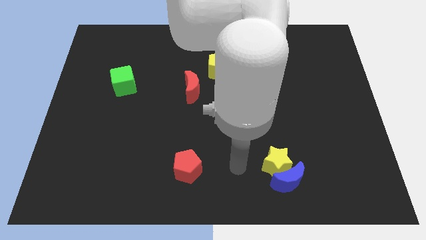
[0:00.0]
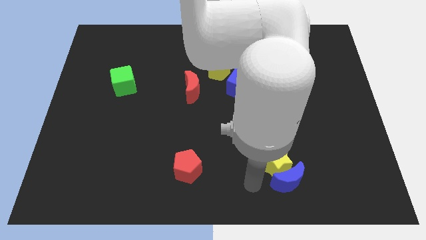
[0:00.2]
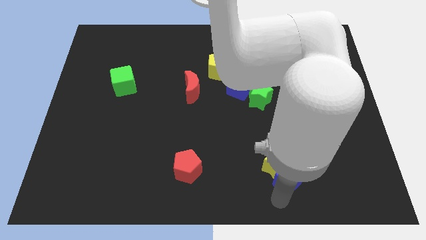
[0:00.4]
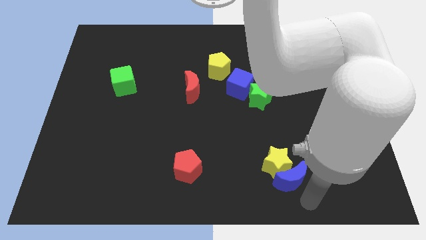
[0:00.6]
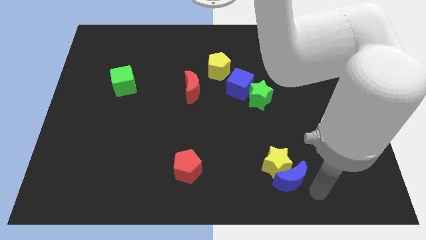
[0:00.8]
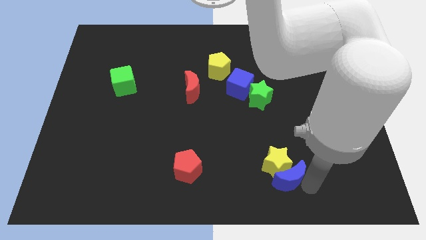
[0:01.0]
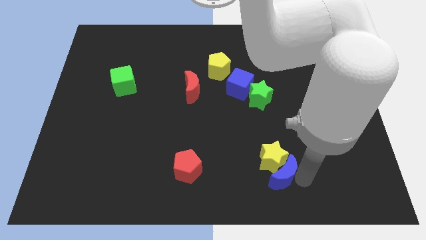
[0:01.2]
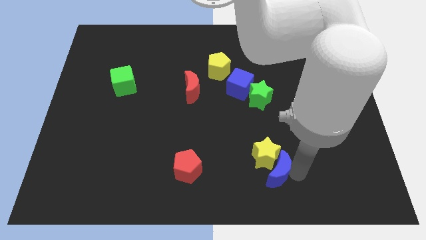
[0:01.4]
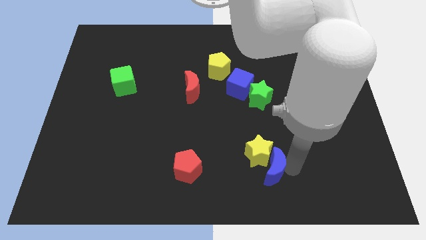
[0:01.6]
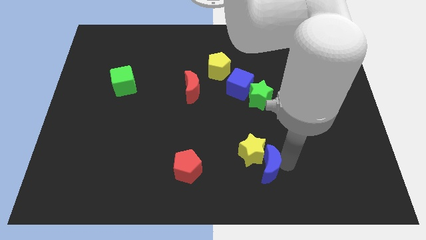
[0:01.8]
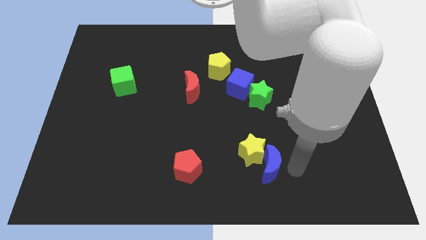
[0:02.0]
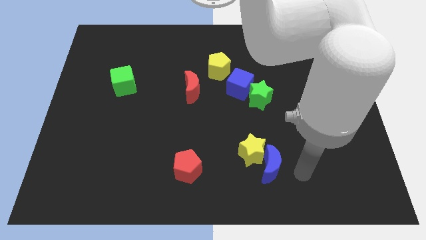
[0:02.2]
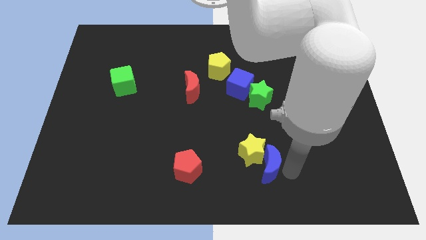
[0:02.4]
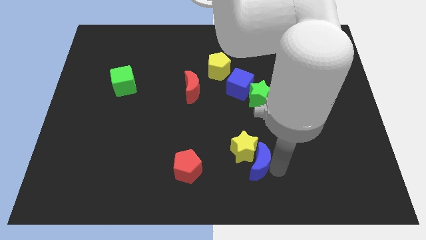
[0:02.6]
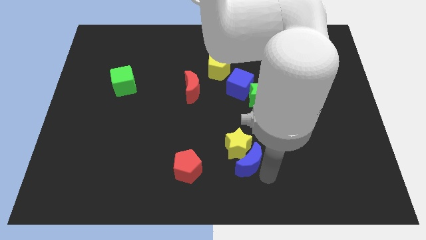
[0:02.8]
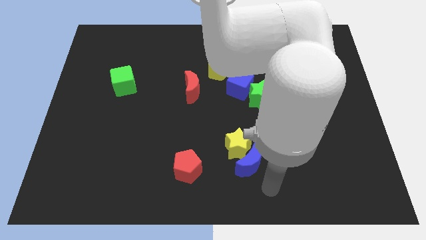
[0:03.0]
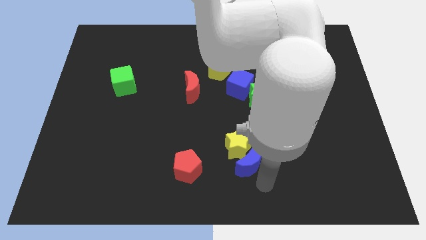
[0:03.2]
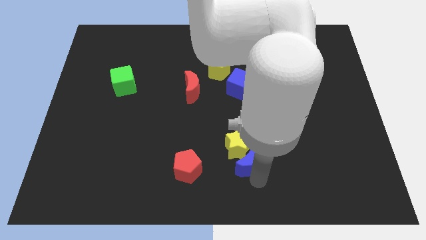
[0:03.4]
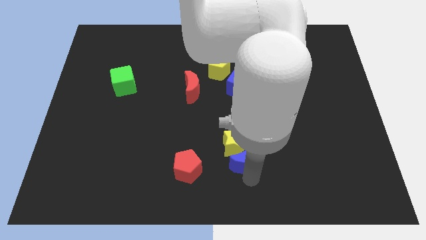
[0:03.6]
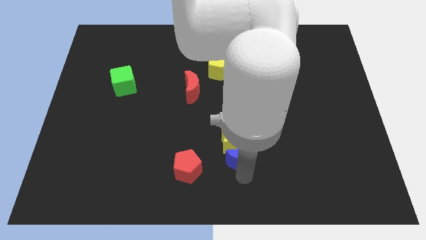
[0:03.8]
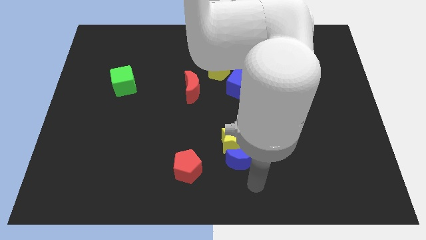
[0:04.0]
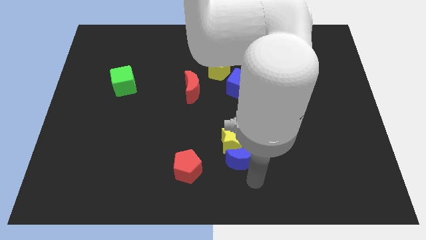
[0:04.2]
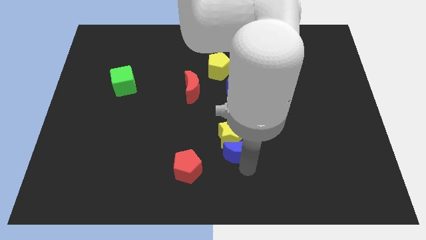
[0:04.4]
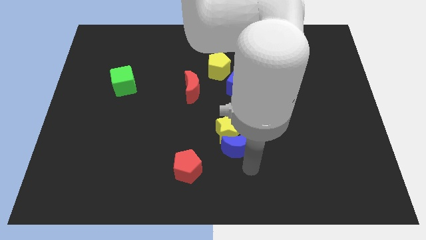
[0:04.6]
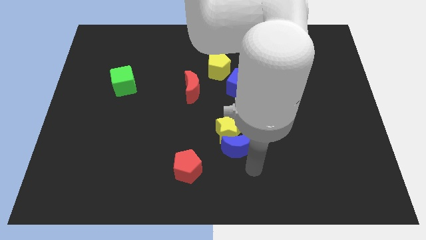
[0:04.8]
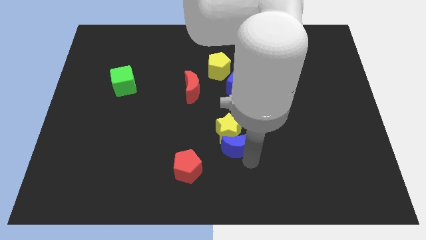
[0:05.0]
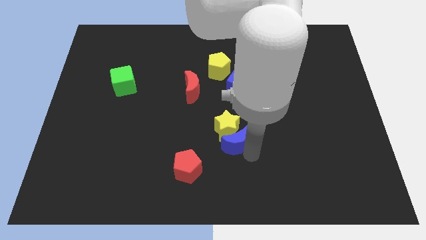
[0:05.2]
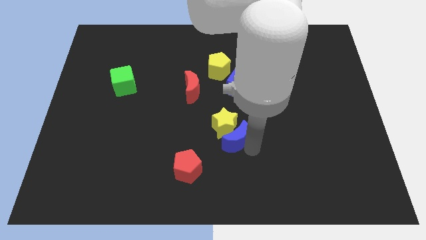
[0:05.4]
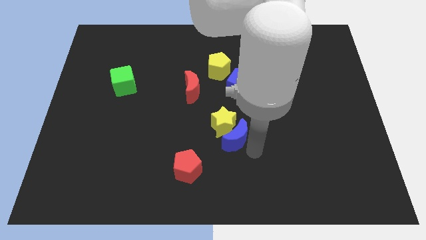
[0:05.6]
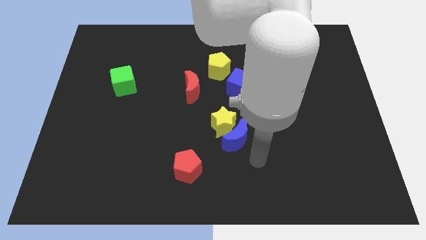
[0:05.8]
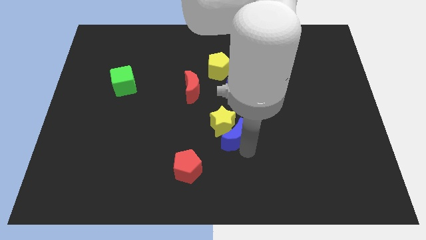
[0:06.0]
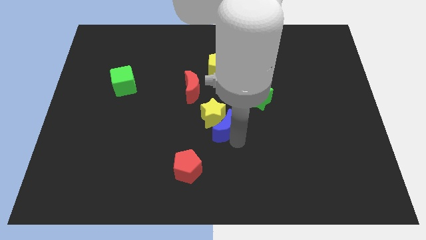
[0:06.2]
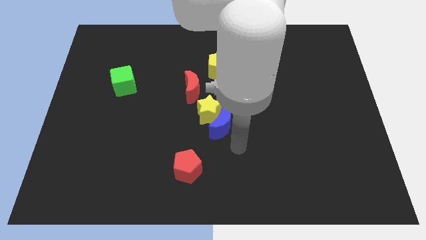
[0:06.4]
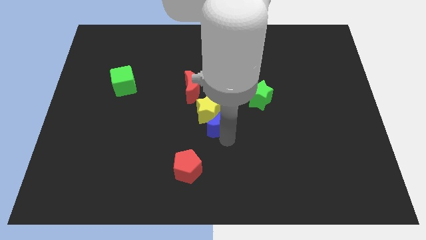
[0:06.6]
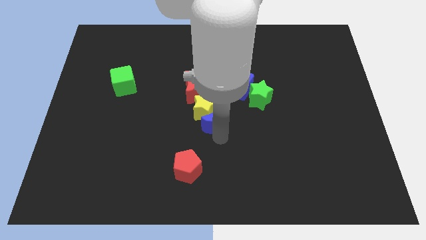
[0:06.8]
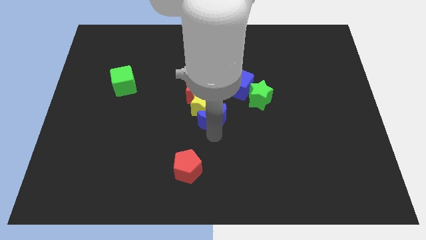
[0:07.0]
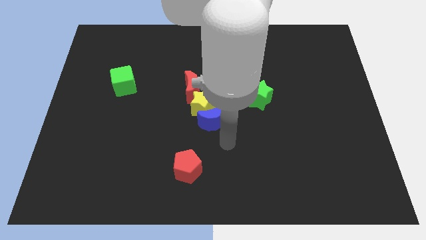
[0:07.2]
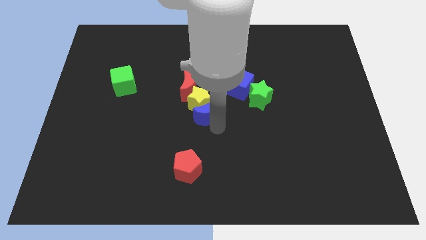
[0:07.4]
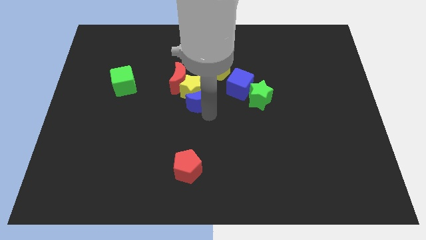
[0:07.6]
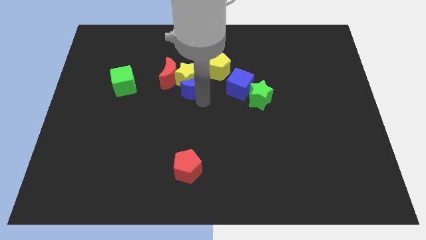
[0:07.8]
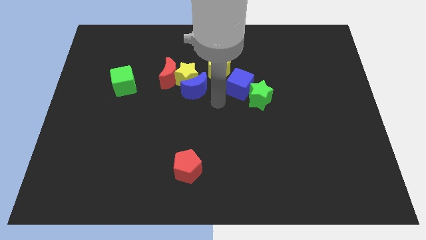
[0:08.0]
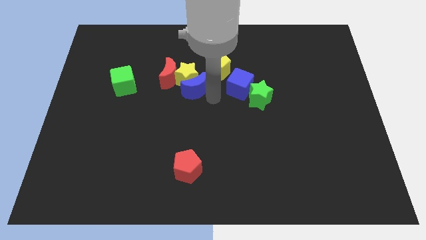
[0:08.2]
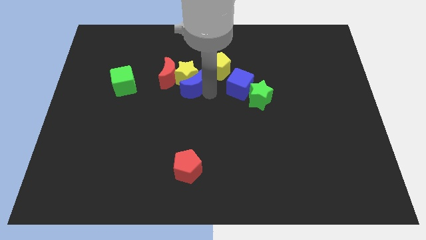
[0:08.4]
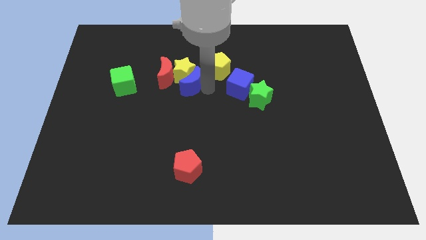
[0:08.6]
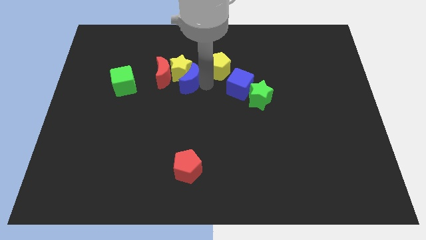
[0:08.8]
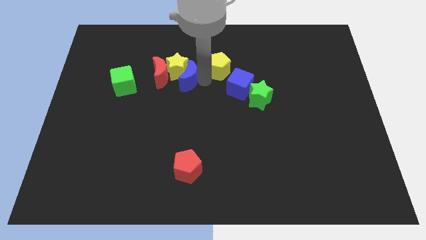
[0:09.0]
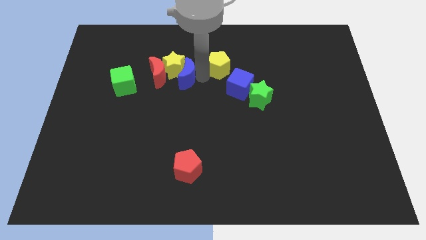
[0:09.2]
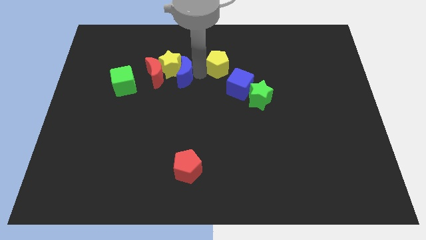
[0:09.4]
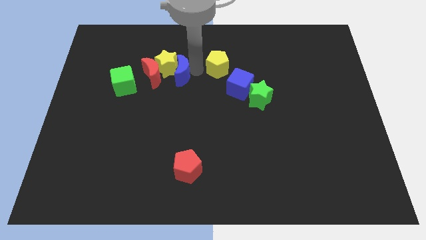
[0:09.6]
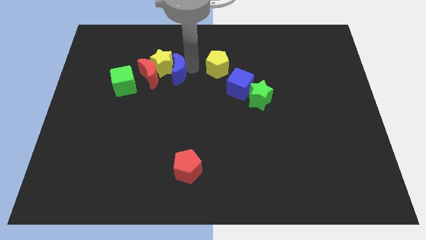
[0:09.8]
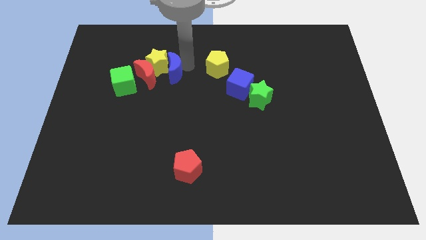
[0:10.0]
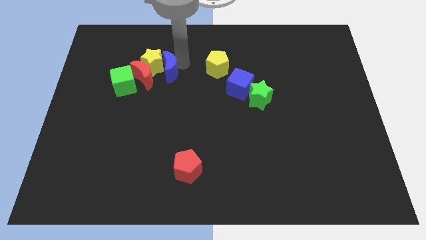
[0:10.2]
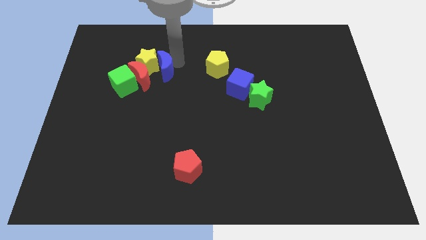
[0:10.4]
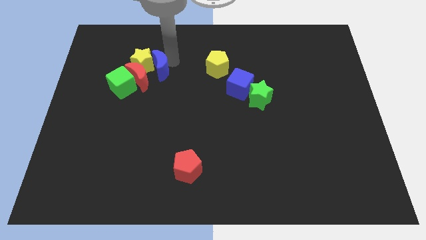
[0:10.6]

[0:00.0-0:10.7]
move the blue moon to the red moon
